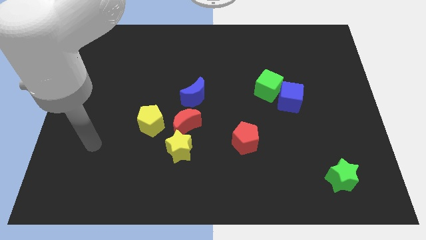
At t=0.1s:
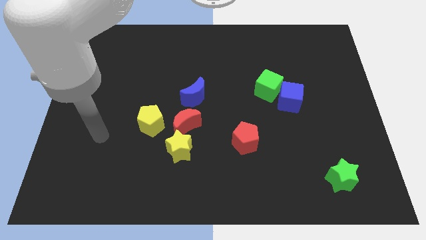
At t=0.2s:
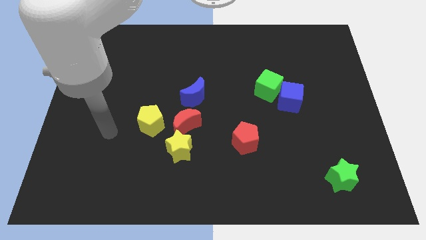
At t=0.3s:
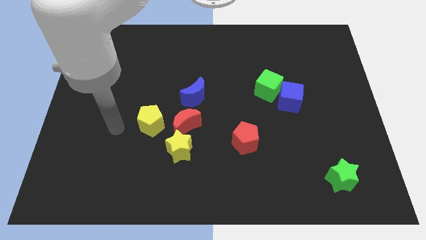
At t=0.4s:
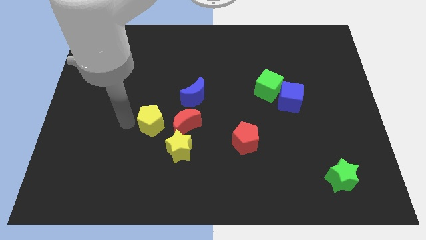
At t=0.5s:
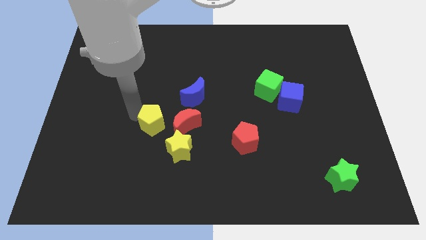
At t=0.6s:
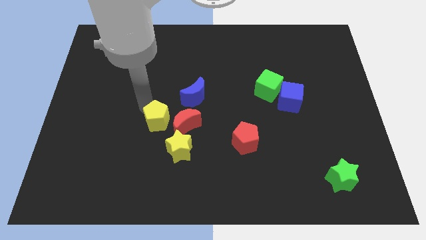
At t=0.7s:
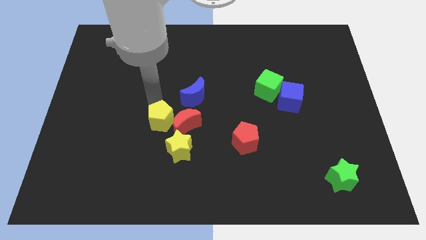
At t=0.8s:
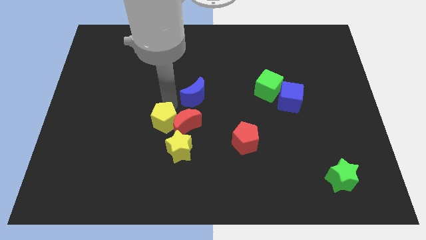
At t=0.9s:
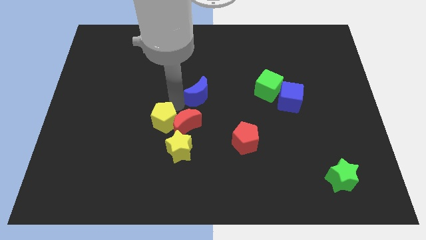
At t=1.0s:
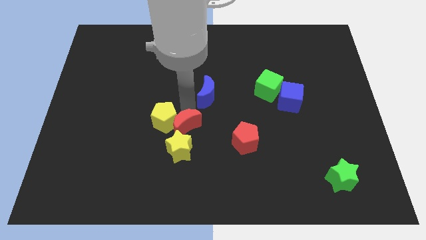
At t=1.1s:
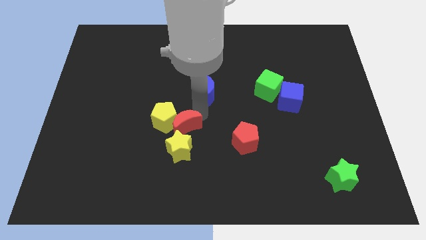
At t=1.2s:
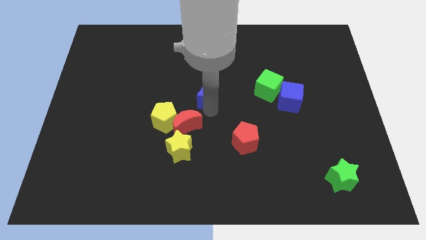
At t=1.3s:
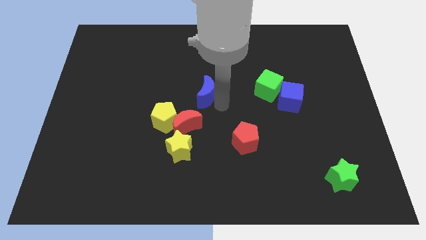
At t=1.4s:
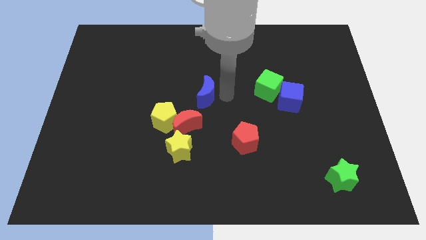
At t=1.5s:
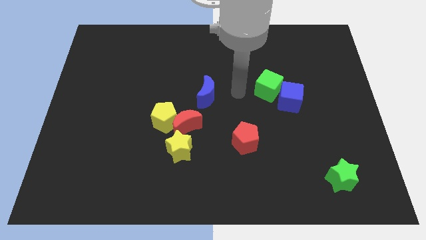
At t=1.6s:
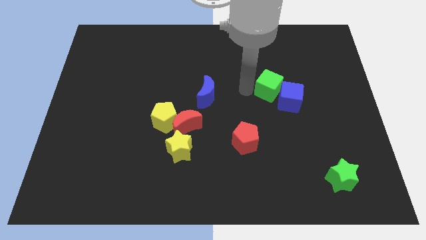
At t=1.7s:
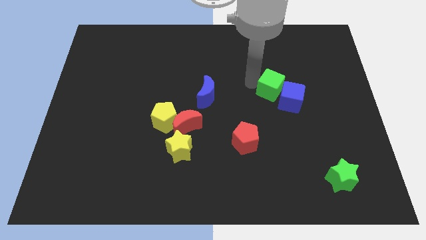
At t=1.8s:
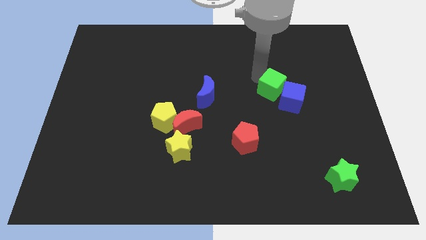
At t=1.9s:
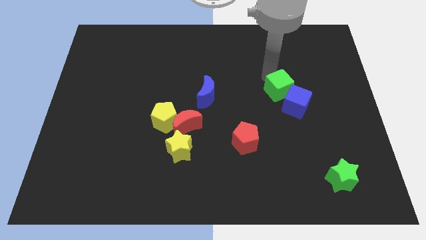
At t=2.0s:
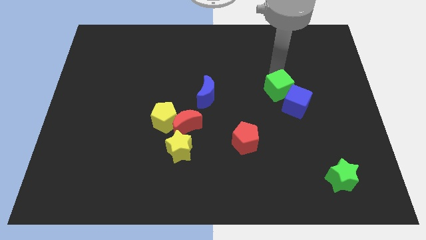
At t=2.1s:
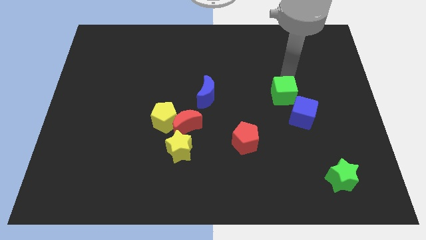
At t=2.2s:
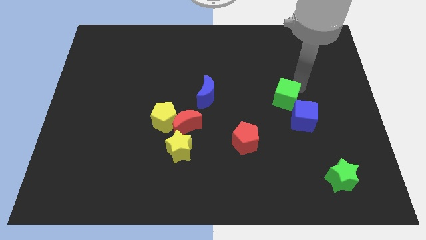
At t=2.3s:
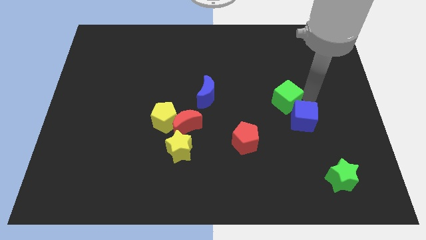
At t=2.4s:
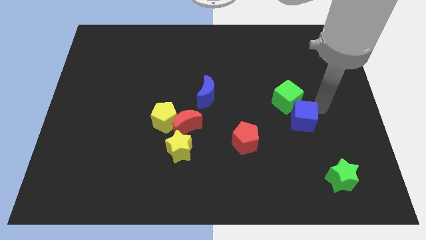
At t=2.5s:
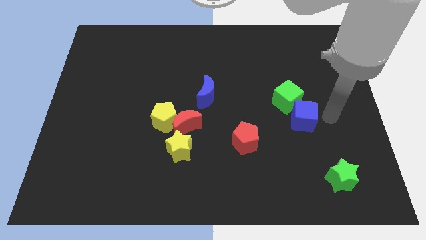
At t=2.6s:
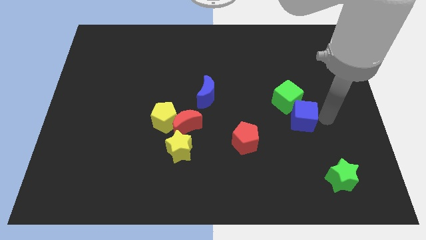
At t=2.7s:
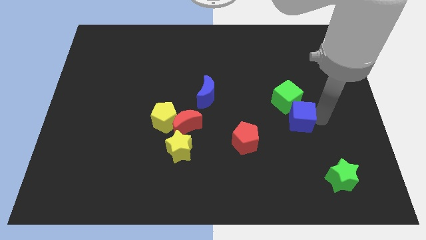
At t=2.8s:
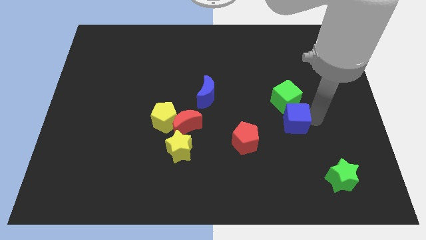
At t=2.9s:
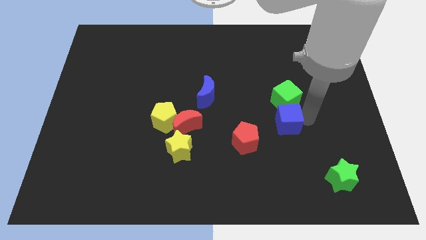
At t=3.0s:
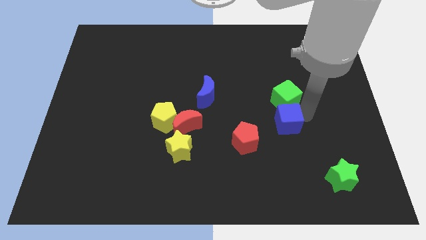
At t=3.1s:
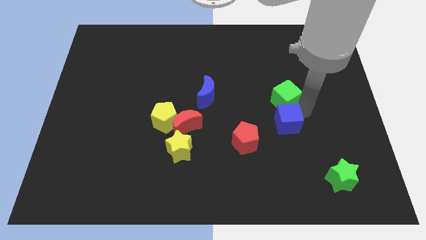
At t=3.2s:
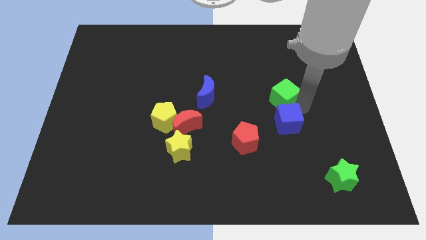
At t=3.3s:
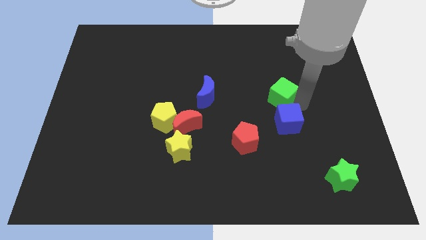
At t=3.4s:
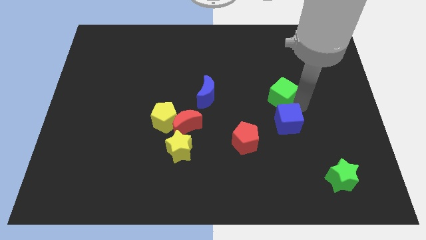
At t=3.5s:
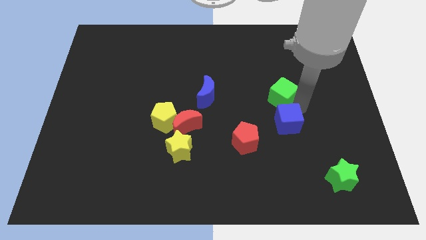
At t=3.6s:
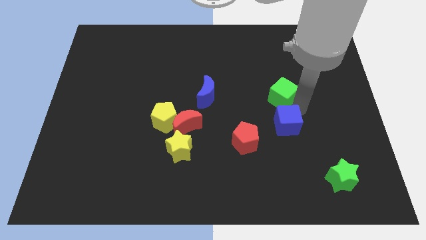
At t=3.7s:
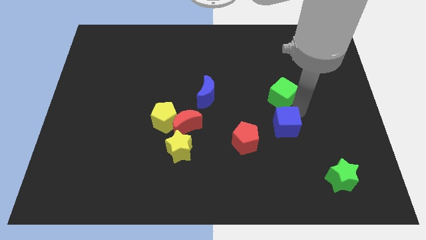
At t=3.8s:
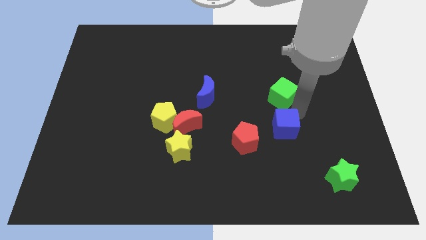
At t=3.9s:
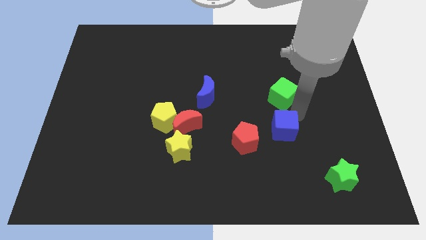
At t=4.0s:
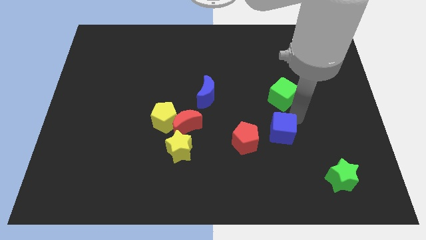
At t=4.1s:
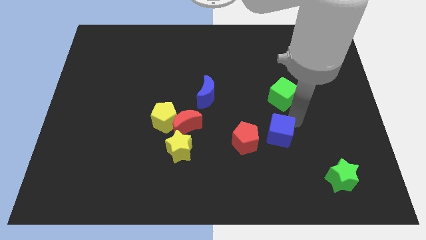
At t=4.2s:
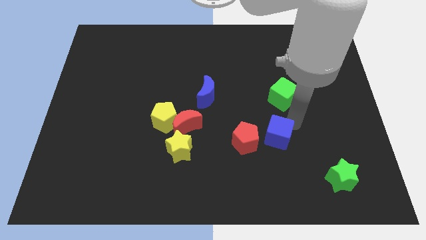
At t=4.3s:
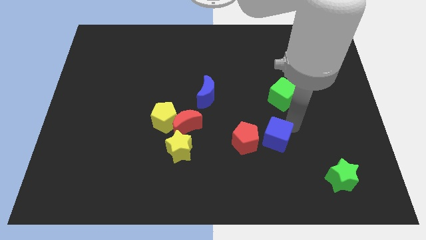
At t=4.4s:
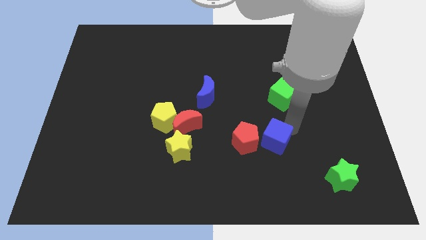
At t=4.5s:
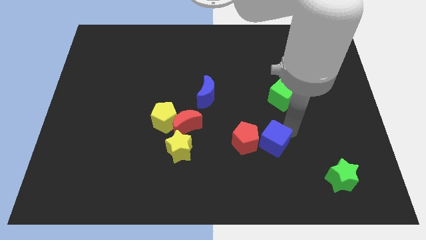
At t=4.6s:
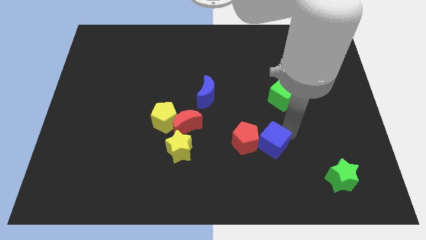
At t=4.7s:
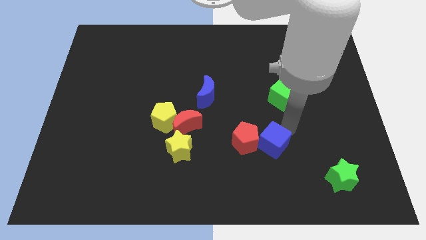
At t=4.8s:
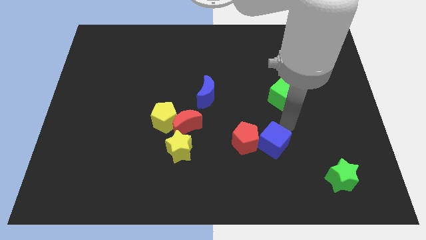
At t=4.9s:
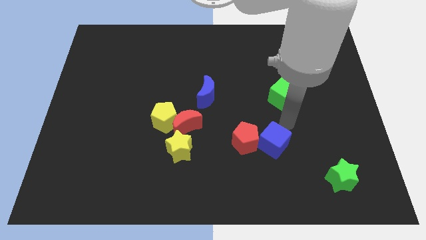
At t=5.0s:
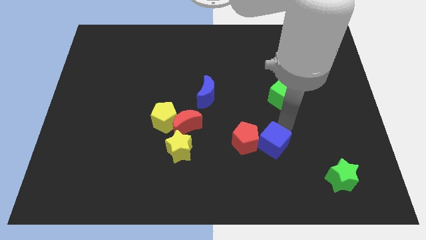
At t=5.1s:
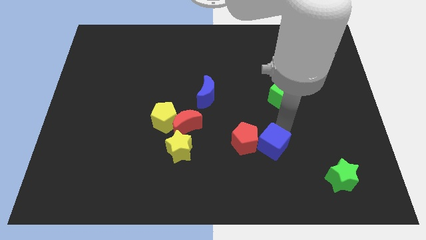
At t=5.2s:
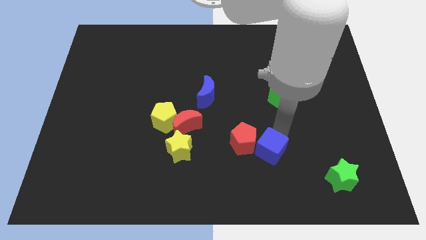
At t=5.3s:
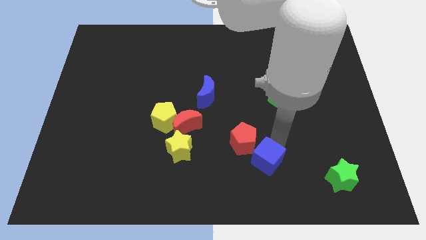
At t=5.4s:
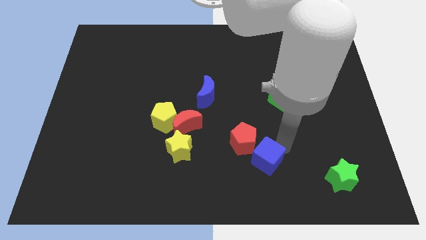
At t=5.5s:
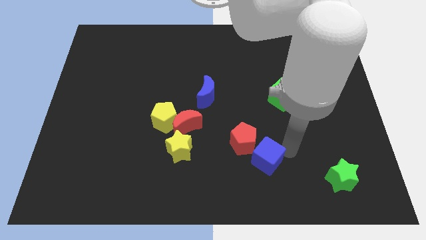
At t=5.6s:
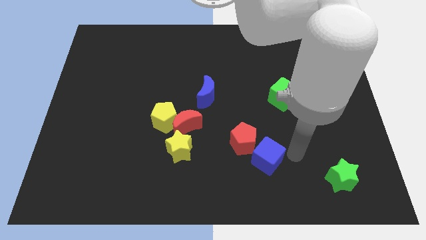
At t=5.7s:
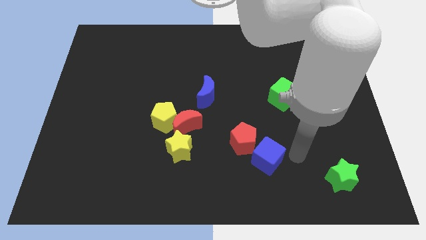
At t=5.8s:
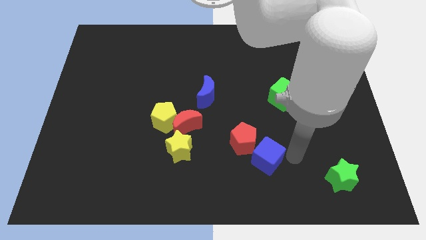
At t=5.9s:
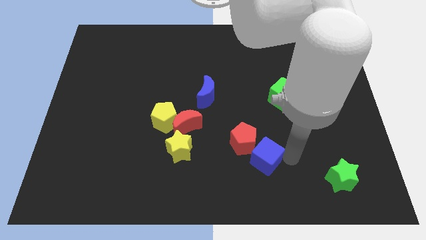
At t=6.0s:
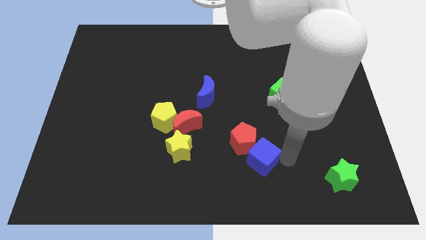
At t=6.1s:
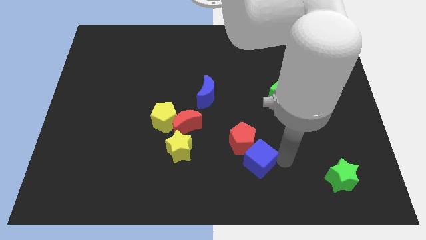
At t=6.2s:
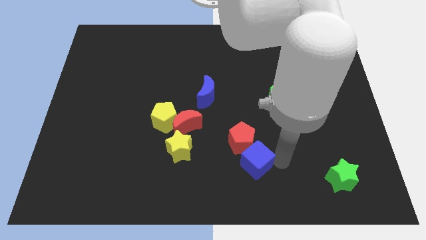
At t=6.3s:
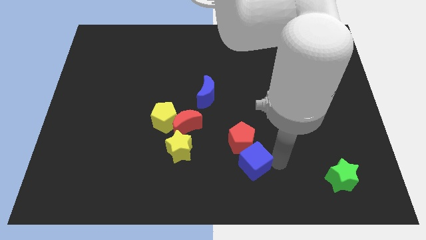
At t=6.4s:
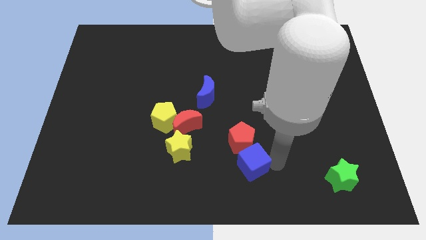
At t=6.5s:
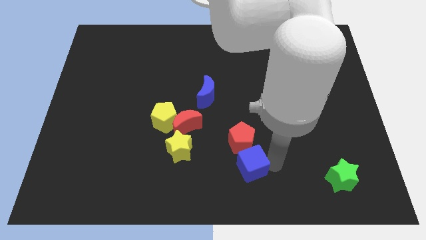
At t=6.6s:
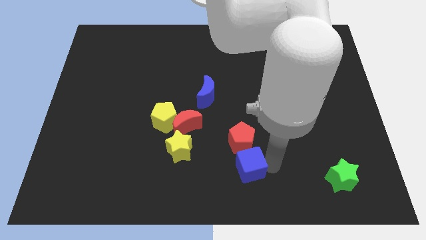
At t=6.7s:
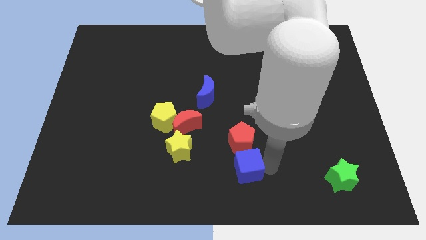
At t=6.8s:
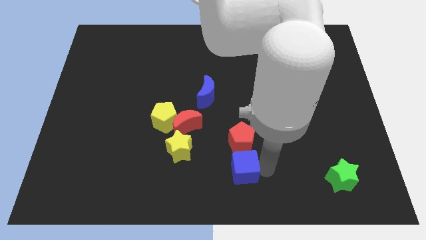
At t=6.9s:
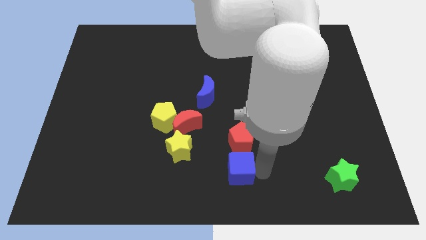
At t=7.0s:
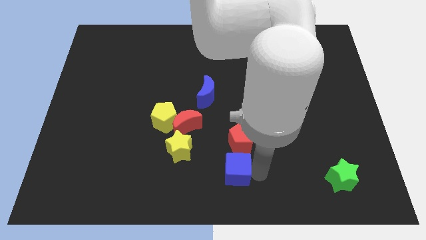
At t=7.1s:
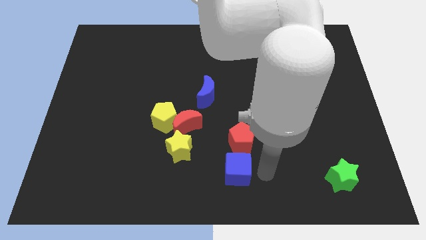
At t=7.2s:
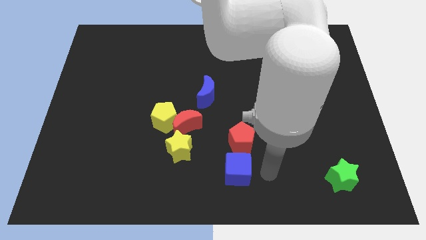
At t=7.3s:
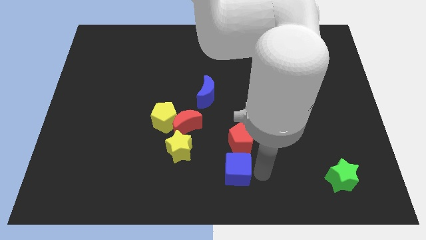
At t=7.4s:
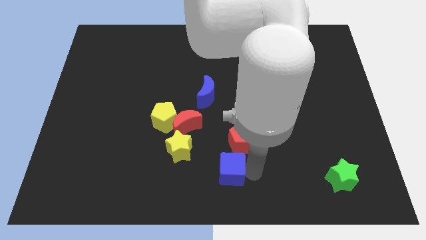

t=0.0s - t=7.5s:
move the blue cube diagonally down and to the right of the yellow star

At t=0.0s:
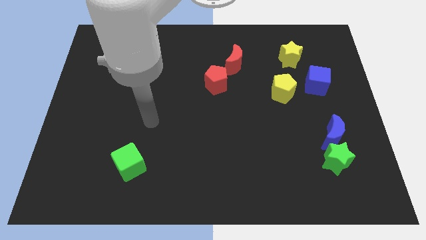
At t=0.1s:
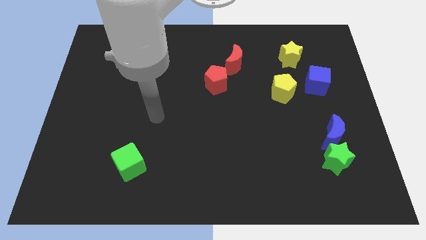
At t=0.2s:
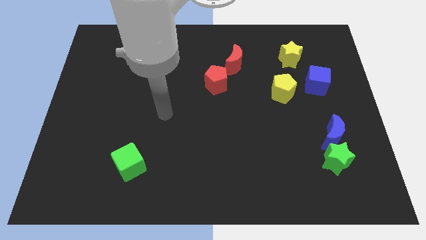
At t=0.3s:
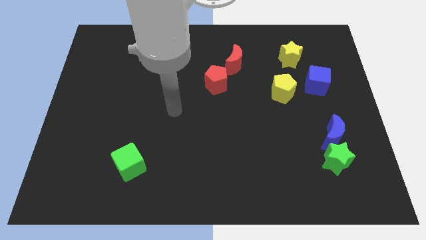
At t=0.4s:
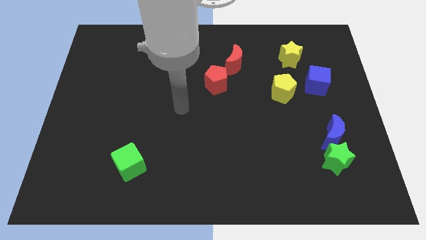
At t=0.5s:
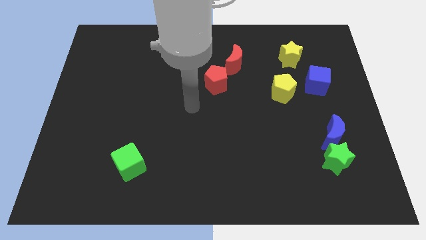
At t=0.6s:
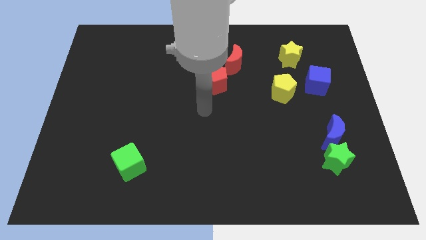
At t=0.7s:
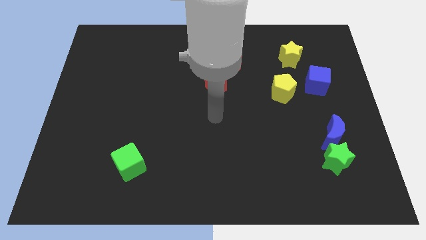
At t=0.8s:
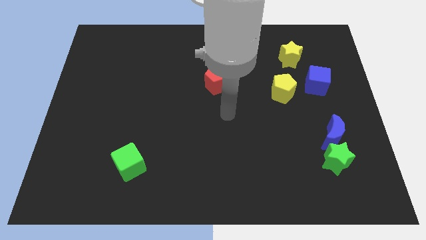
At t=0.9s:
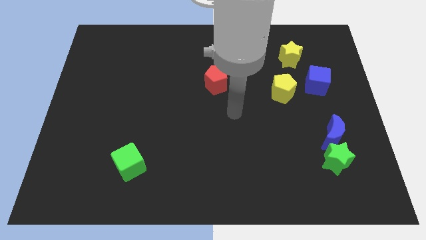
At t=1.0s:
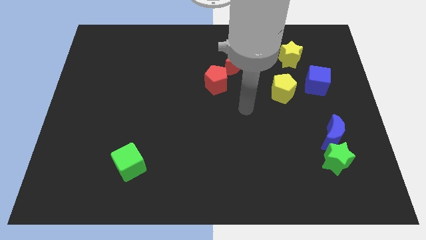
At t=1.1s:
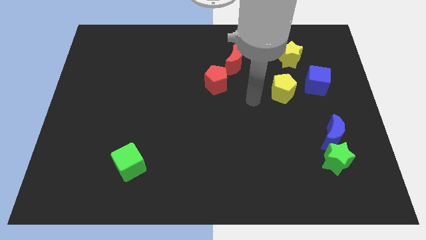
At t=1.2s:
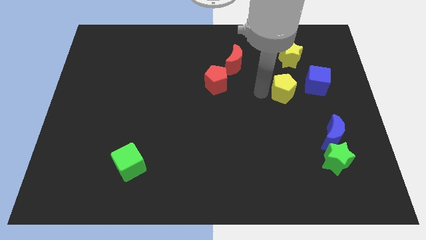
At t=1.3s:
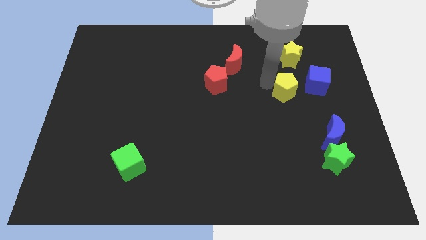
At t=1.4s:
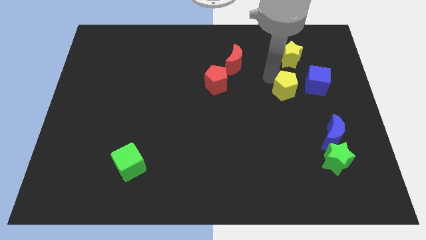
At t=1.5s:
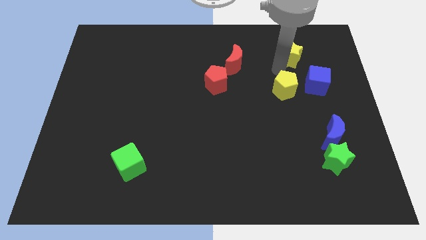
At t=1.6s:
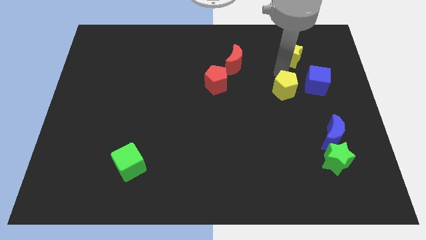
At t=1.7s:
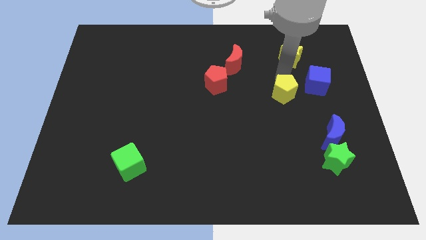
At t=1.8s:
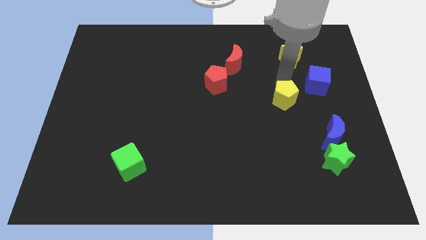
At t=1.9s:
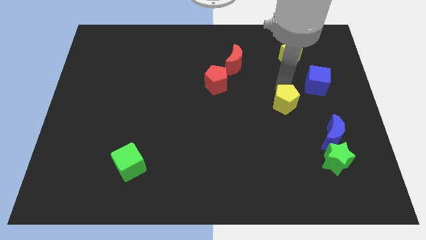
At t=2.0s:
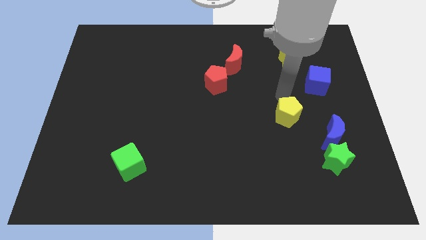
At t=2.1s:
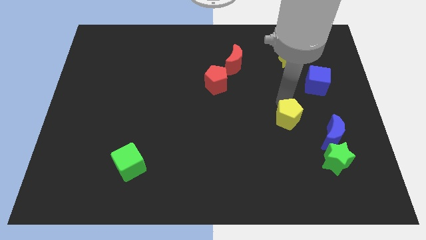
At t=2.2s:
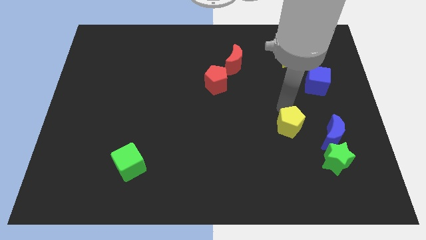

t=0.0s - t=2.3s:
move the yellow pentagon to the top left of the green star
